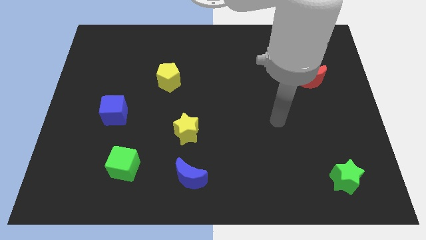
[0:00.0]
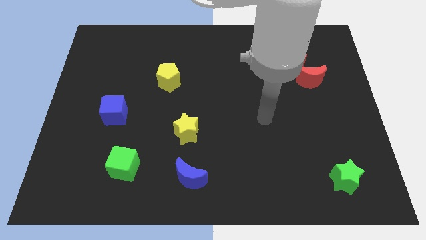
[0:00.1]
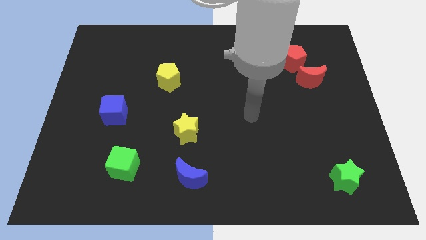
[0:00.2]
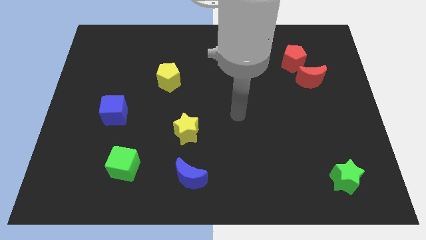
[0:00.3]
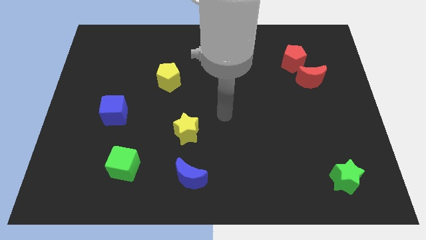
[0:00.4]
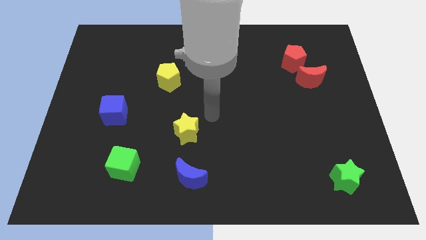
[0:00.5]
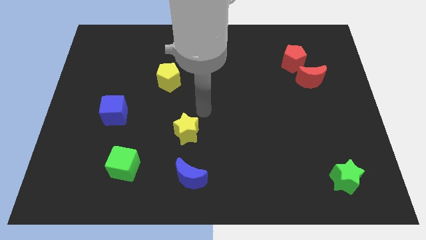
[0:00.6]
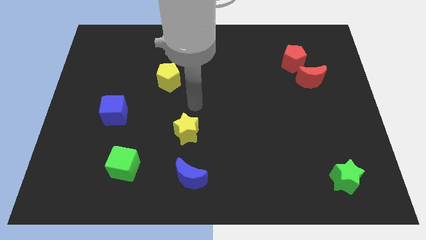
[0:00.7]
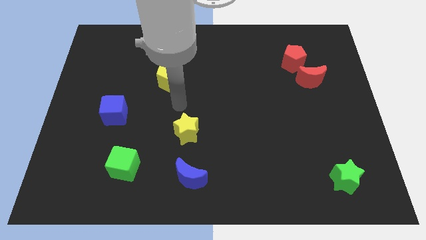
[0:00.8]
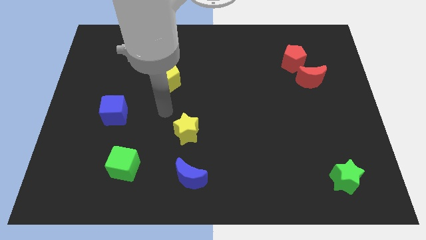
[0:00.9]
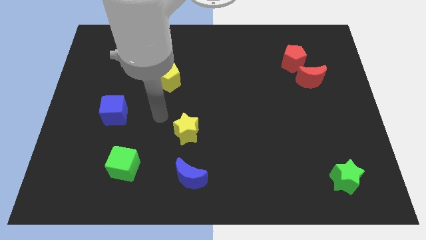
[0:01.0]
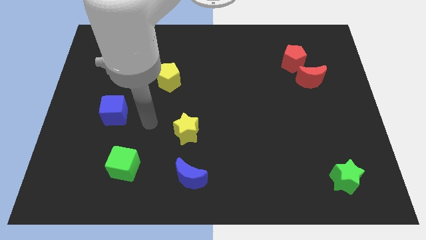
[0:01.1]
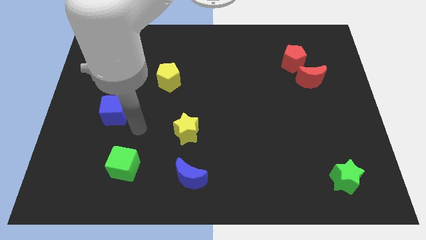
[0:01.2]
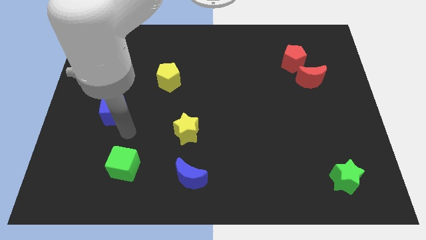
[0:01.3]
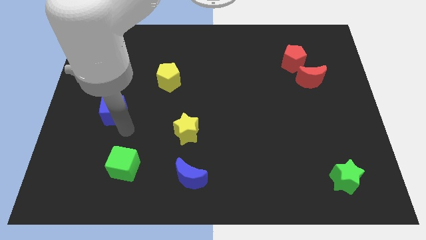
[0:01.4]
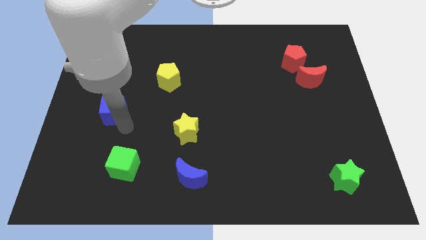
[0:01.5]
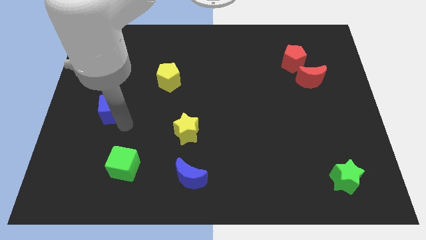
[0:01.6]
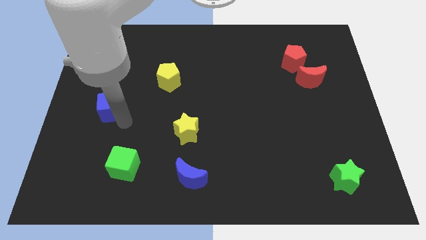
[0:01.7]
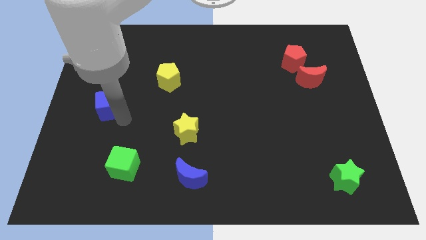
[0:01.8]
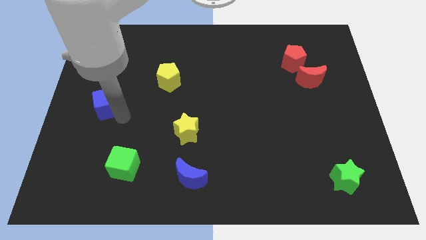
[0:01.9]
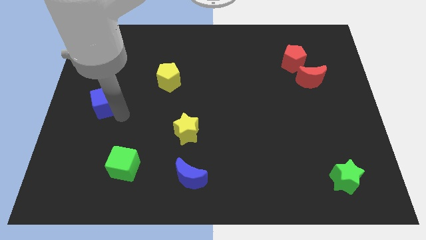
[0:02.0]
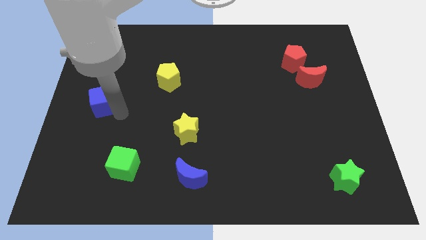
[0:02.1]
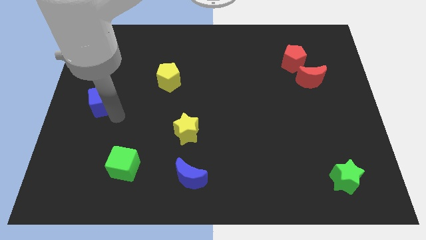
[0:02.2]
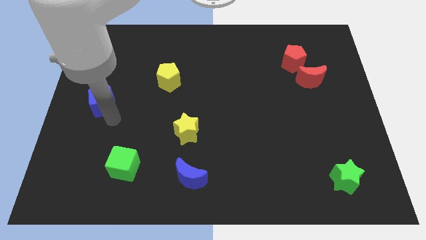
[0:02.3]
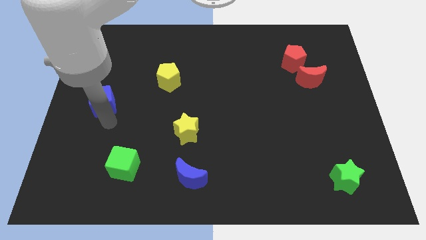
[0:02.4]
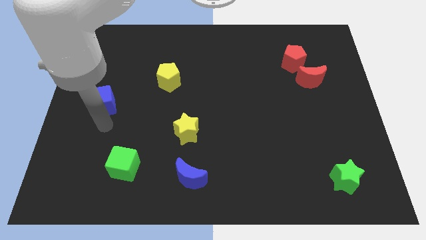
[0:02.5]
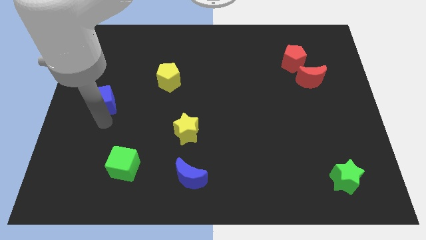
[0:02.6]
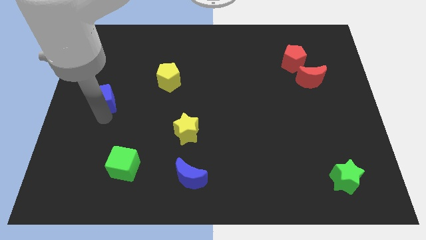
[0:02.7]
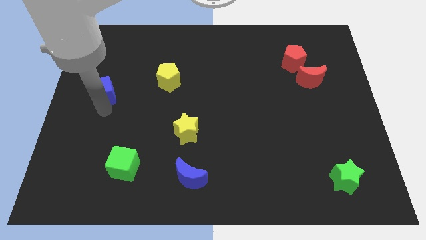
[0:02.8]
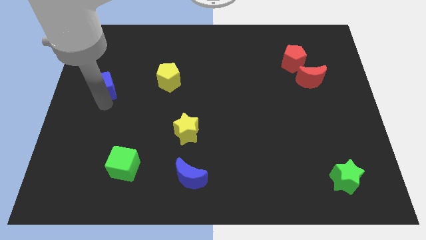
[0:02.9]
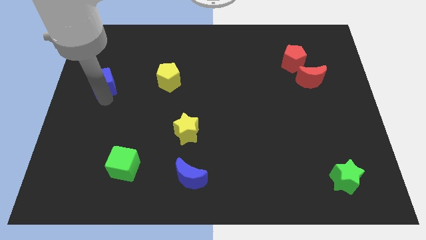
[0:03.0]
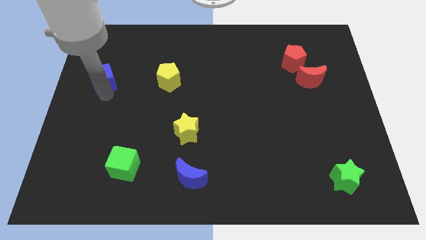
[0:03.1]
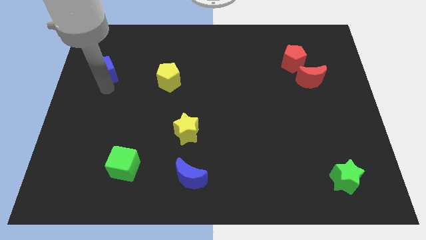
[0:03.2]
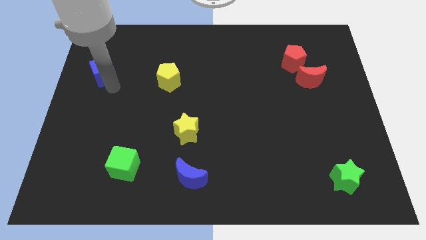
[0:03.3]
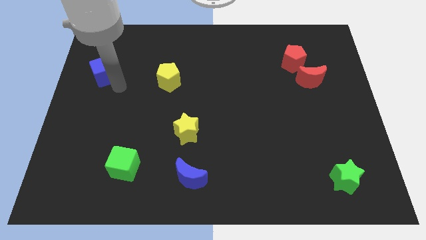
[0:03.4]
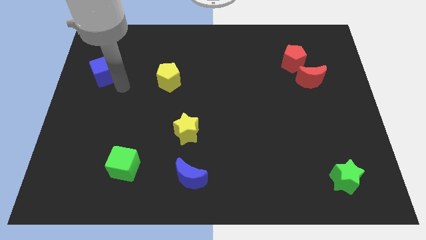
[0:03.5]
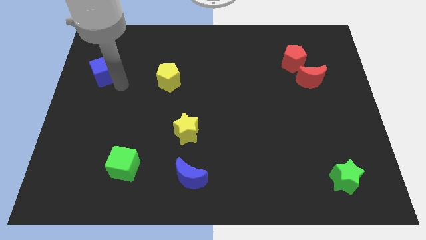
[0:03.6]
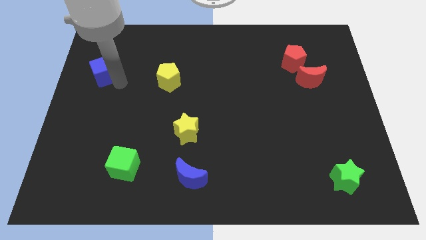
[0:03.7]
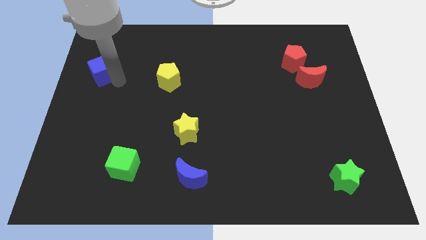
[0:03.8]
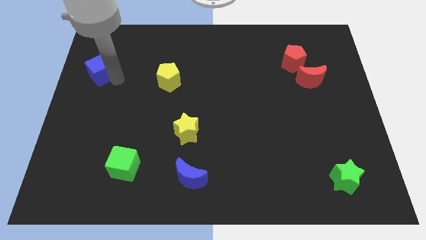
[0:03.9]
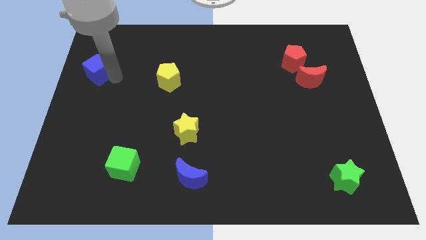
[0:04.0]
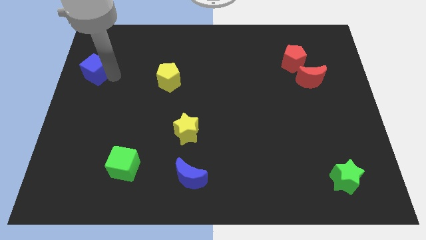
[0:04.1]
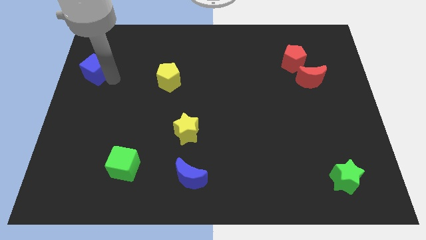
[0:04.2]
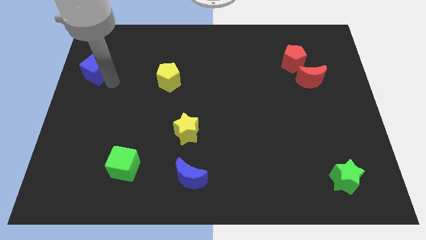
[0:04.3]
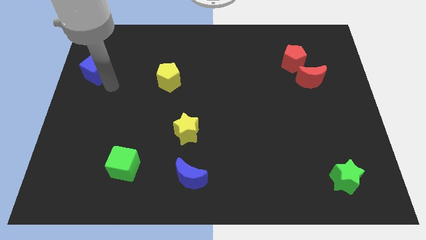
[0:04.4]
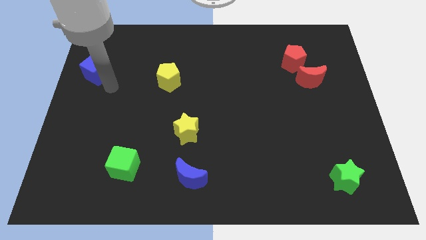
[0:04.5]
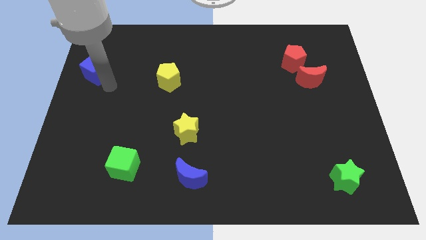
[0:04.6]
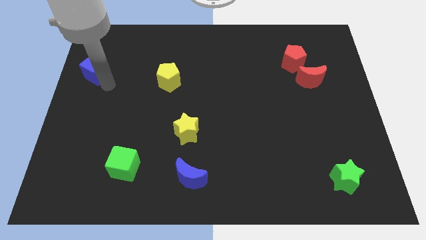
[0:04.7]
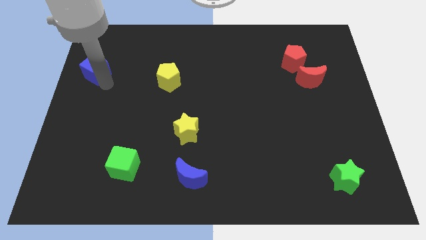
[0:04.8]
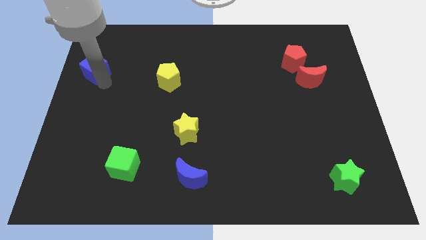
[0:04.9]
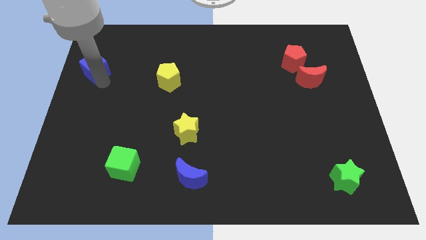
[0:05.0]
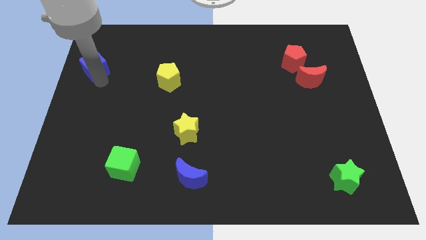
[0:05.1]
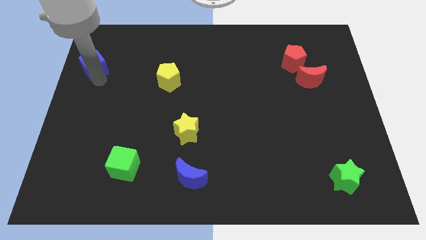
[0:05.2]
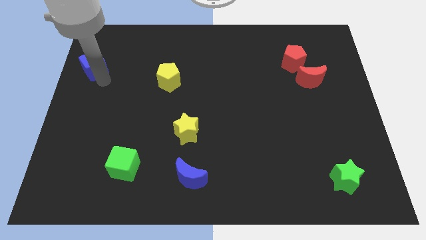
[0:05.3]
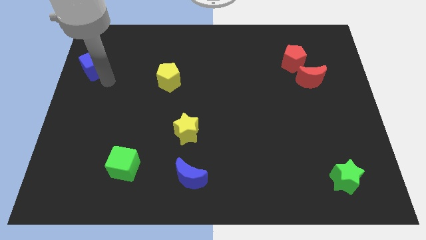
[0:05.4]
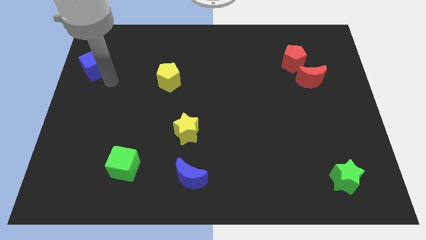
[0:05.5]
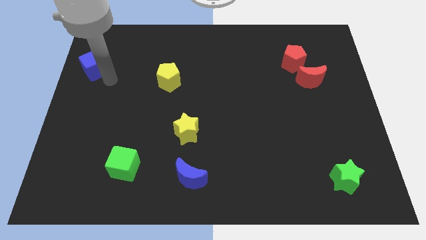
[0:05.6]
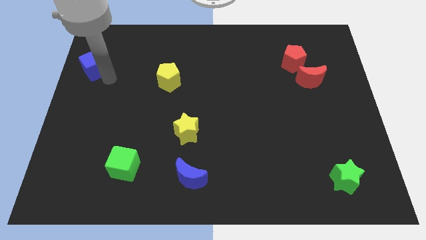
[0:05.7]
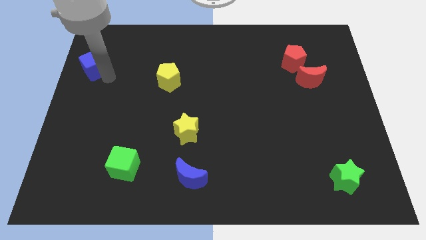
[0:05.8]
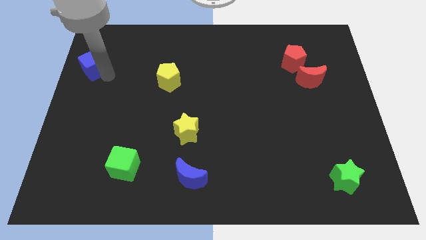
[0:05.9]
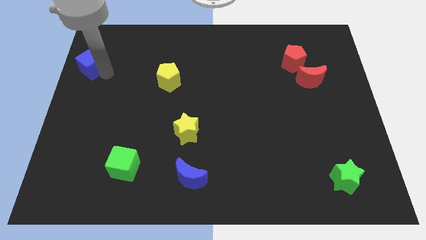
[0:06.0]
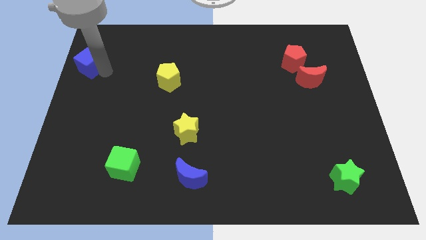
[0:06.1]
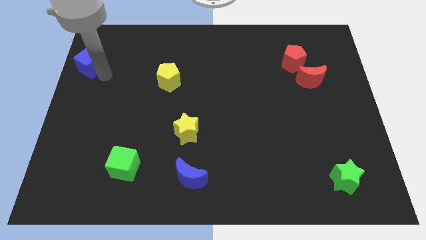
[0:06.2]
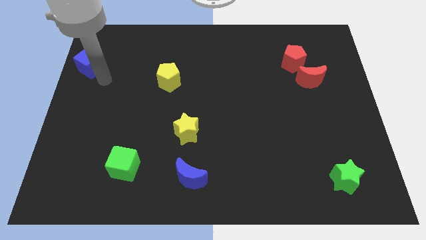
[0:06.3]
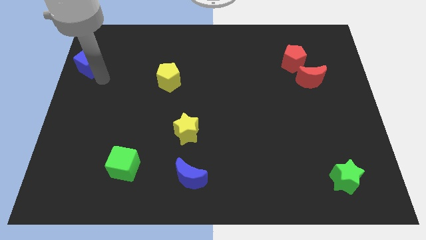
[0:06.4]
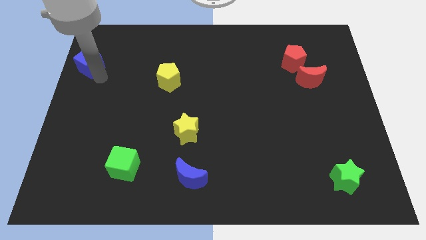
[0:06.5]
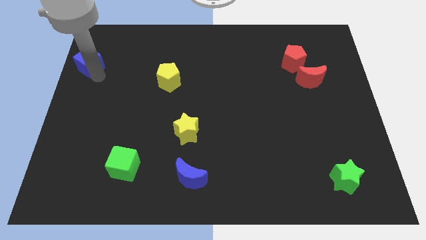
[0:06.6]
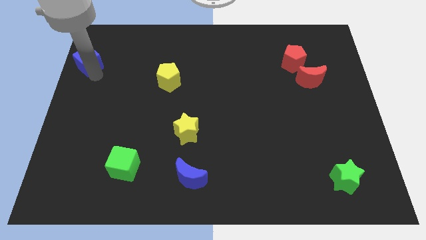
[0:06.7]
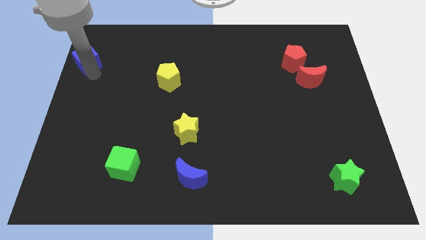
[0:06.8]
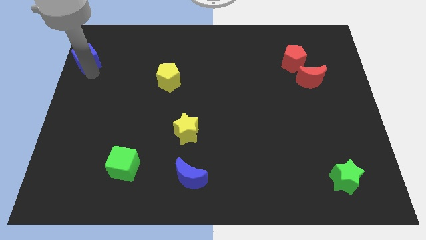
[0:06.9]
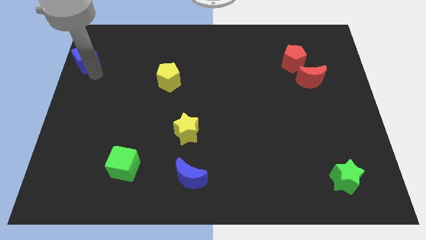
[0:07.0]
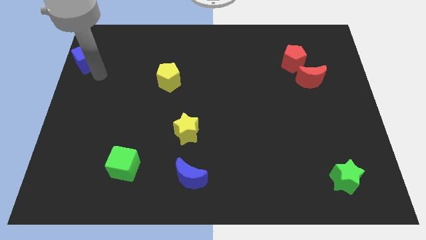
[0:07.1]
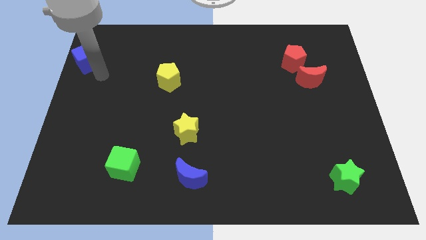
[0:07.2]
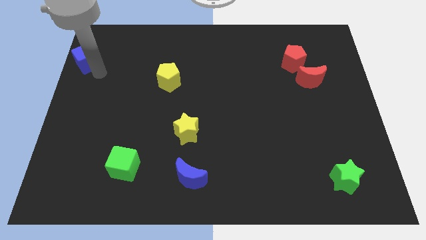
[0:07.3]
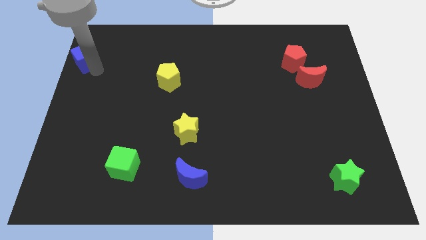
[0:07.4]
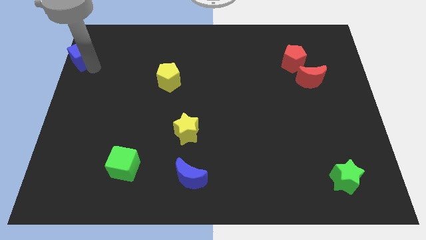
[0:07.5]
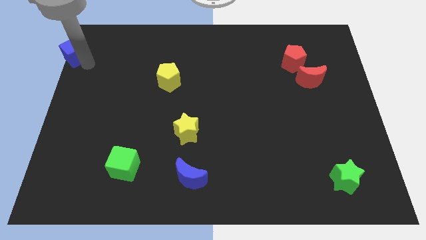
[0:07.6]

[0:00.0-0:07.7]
move the blue cube to the top left of the board
